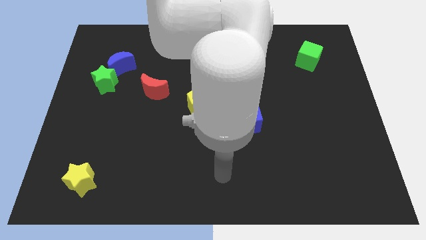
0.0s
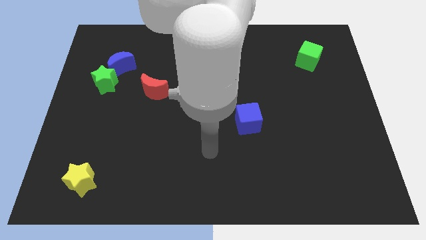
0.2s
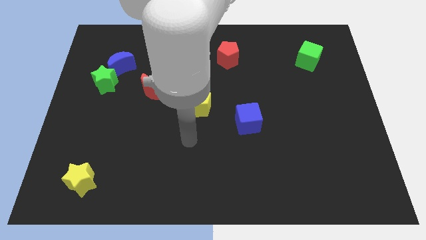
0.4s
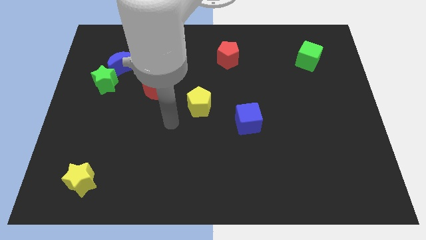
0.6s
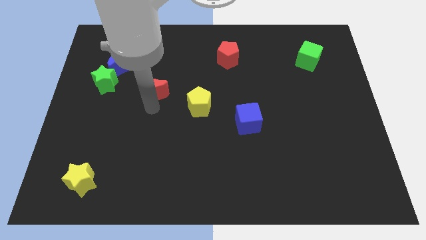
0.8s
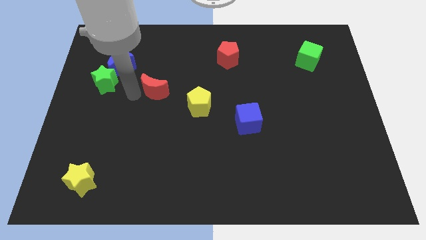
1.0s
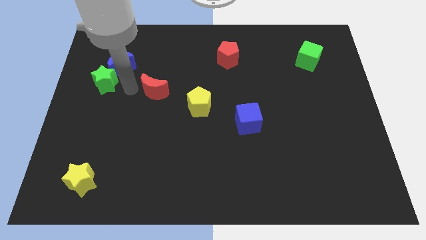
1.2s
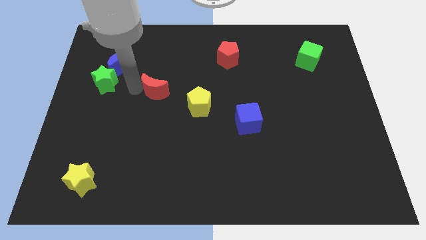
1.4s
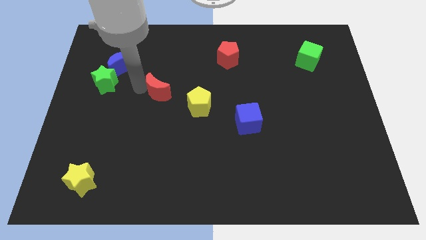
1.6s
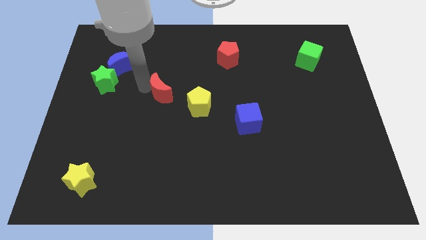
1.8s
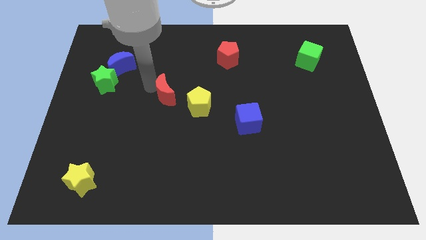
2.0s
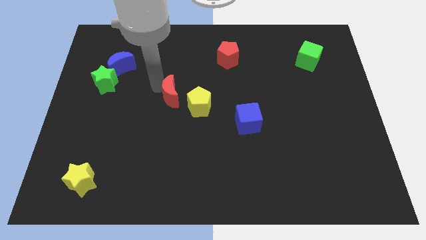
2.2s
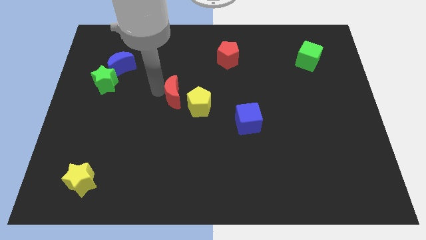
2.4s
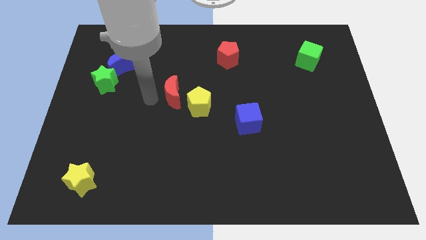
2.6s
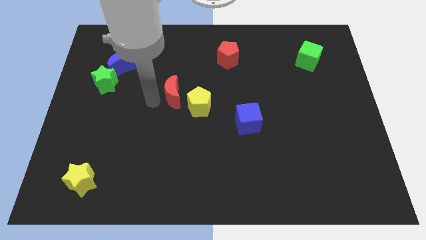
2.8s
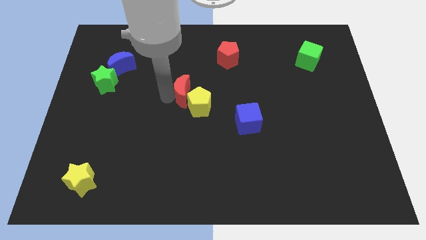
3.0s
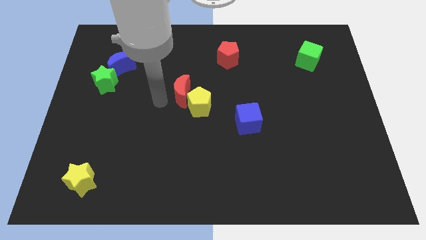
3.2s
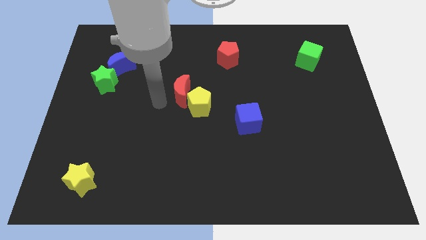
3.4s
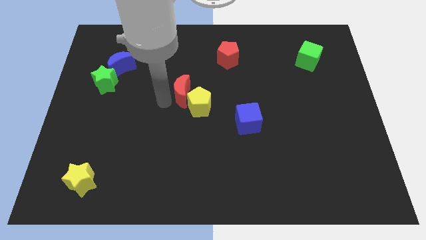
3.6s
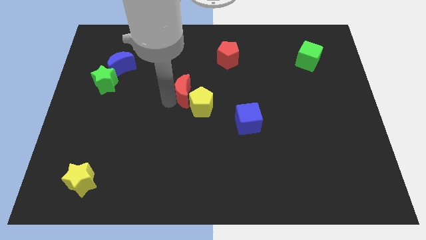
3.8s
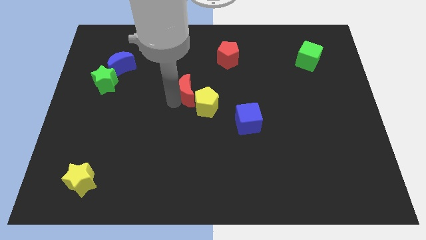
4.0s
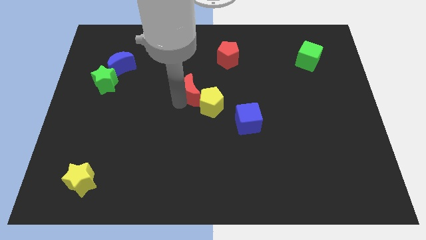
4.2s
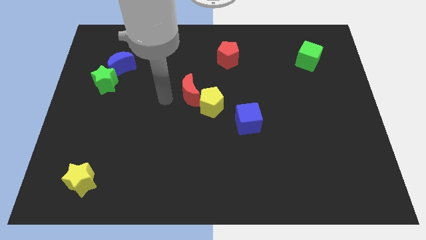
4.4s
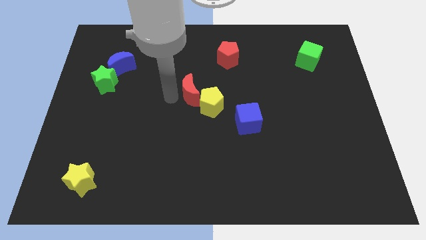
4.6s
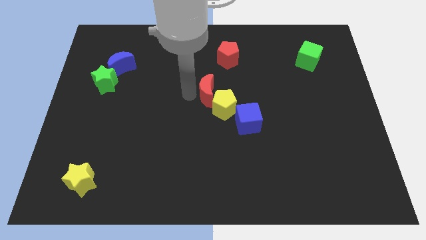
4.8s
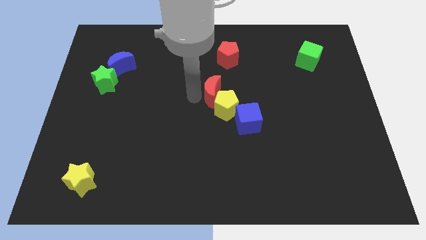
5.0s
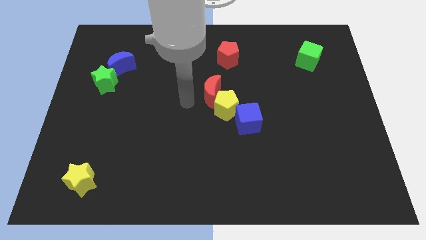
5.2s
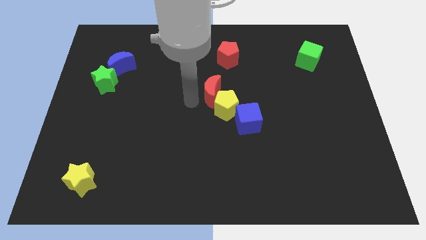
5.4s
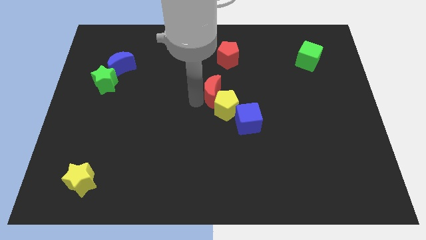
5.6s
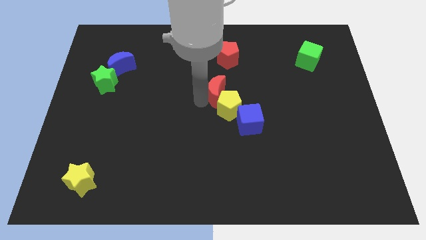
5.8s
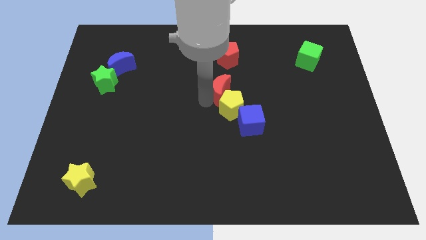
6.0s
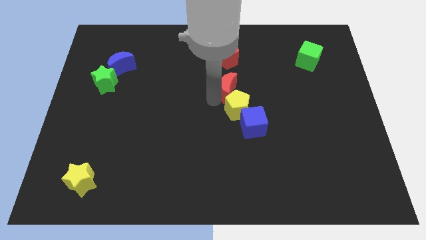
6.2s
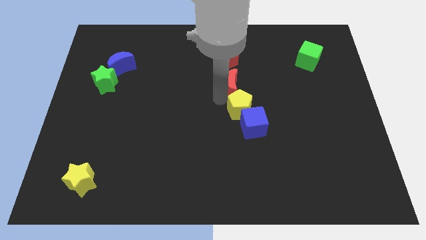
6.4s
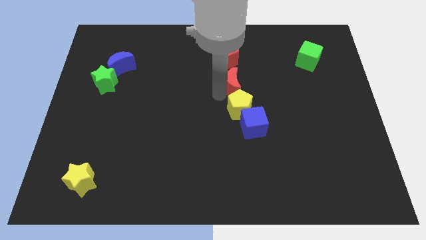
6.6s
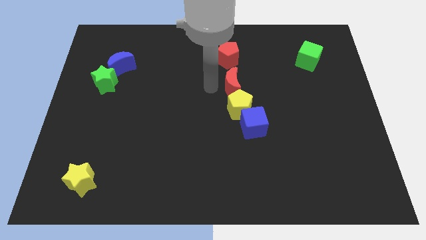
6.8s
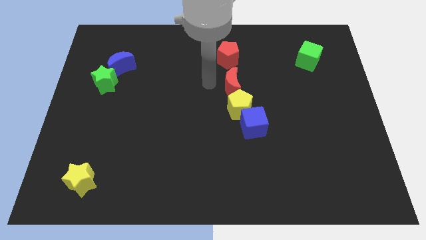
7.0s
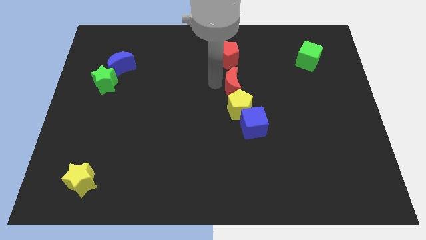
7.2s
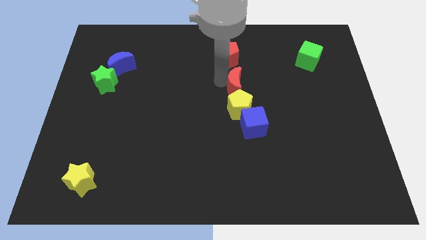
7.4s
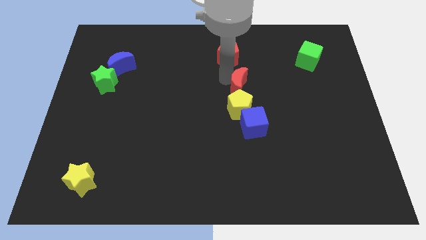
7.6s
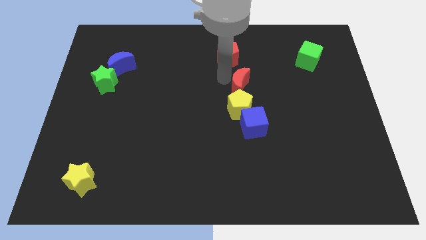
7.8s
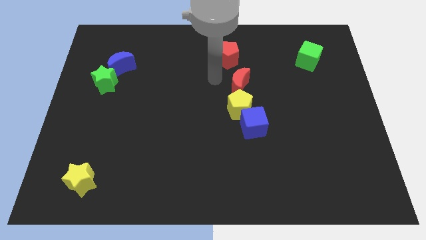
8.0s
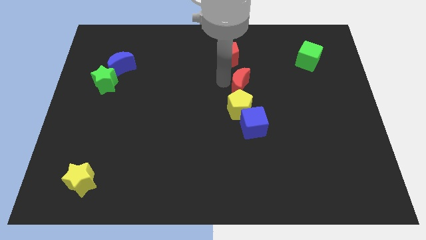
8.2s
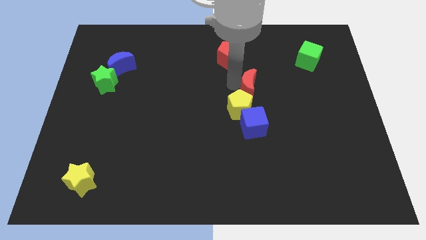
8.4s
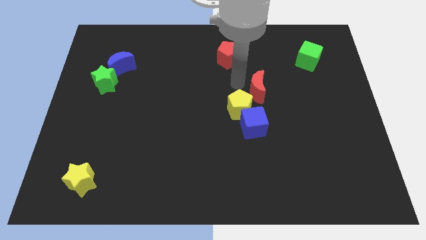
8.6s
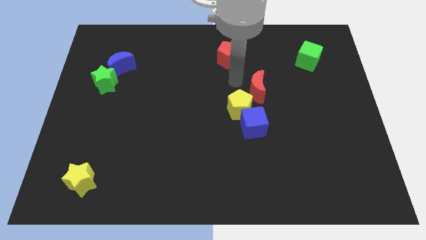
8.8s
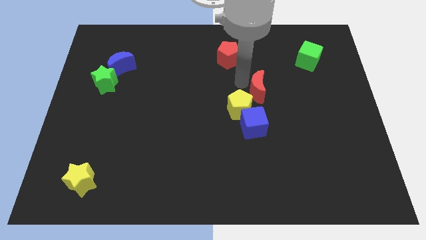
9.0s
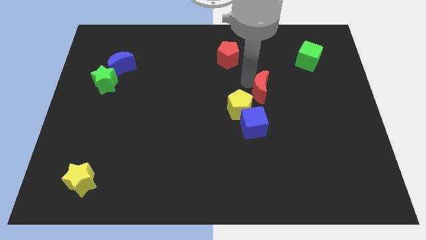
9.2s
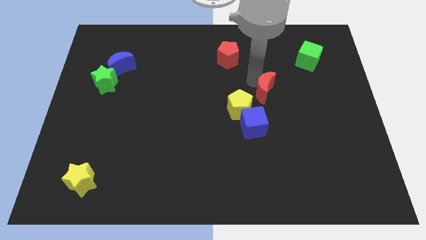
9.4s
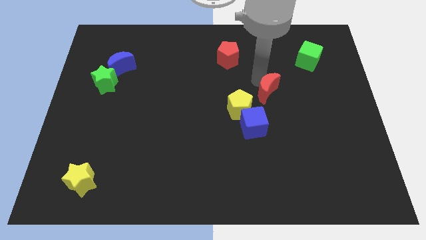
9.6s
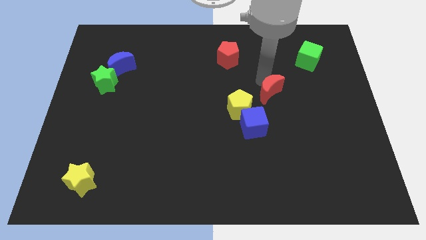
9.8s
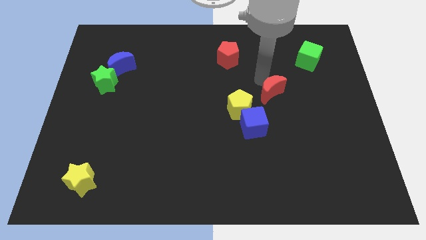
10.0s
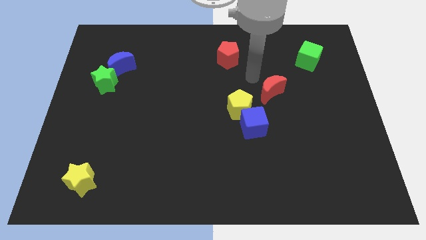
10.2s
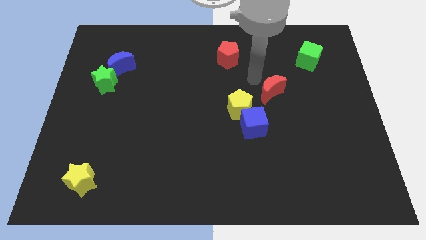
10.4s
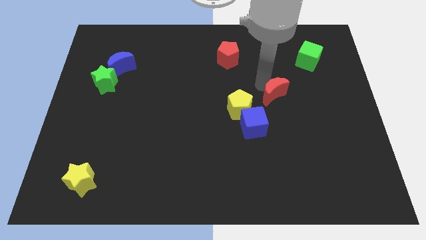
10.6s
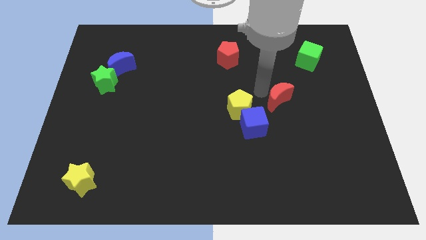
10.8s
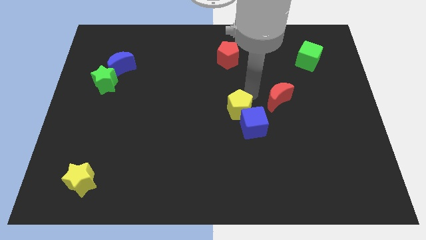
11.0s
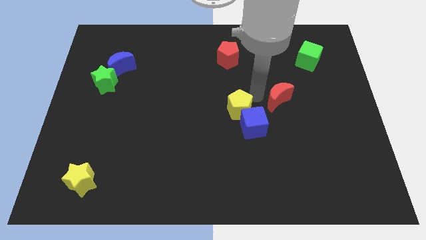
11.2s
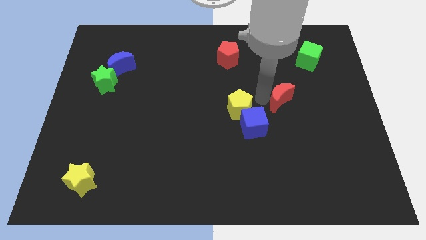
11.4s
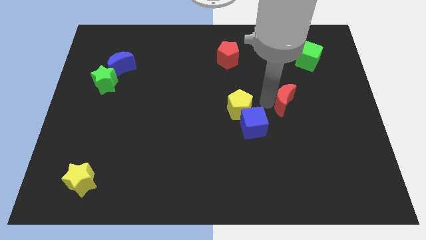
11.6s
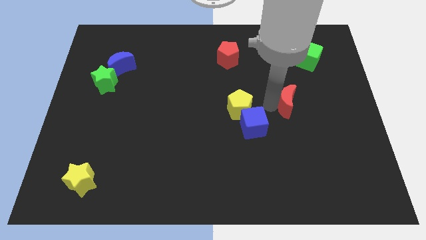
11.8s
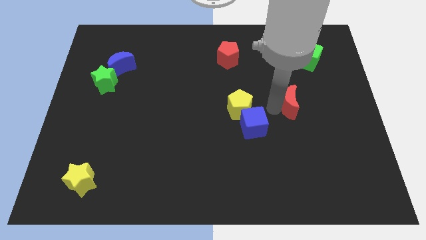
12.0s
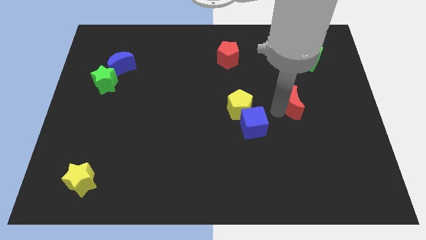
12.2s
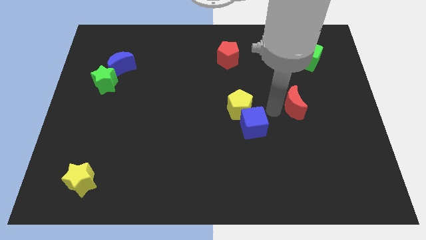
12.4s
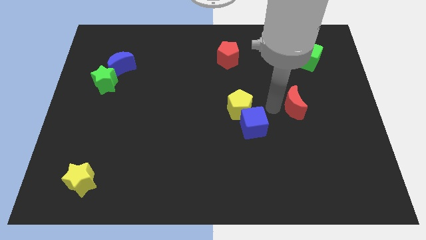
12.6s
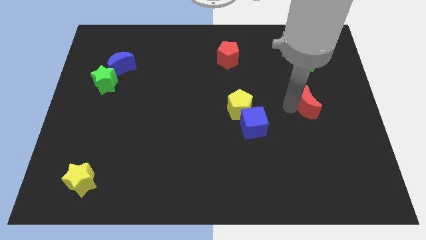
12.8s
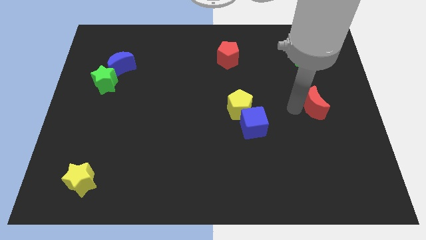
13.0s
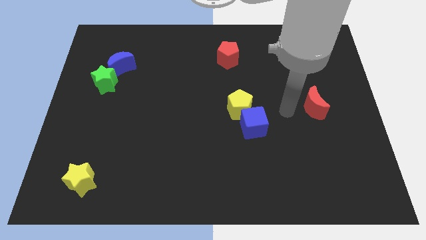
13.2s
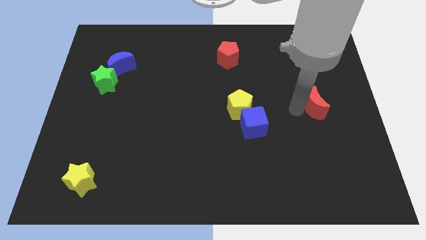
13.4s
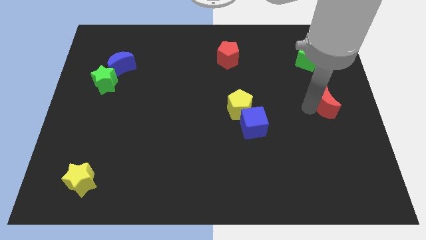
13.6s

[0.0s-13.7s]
move the red moon to the right side

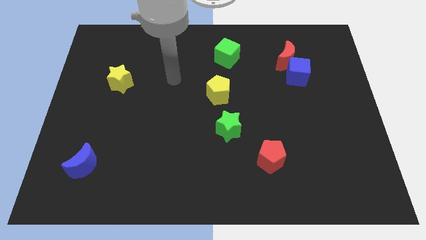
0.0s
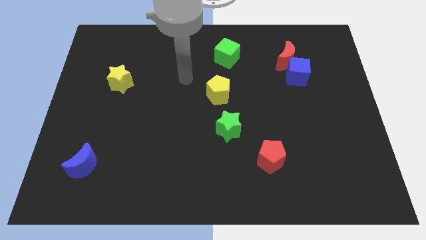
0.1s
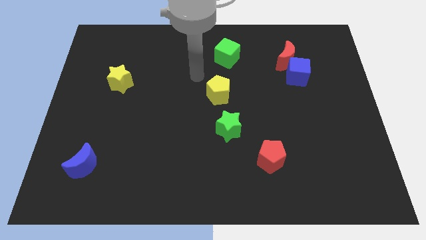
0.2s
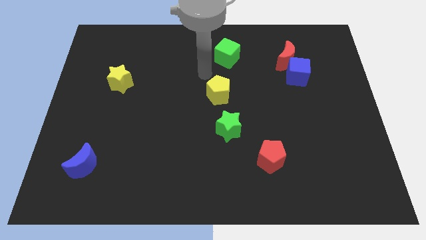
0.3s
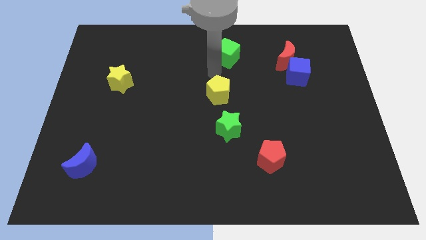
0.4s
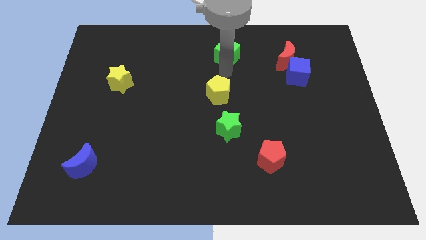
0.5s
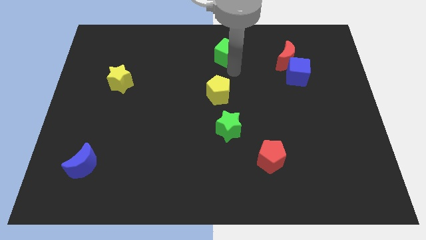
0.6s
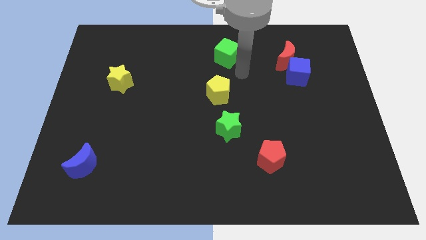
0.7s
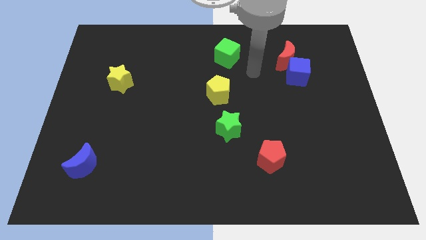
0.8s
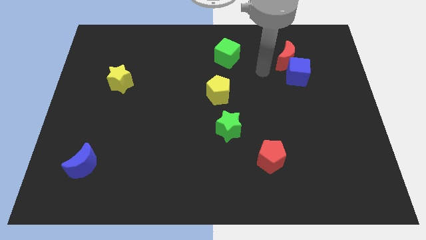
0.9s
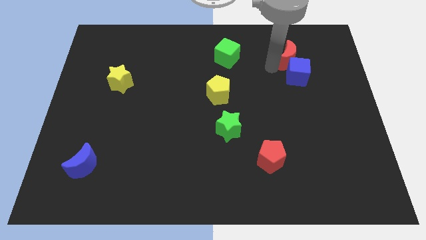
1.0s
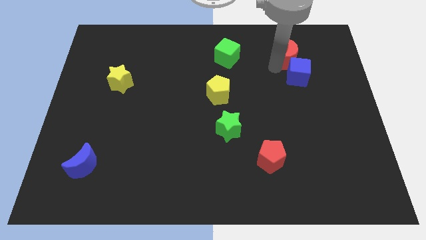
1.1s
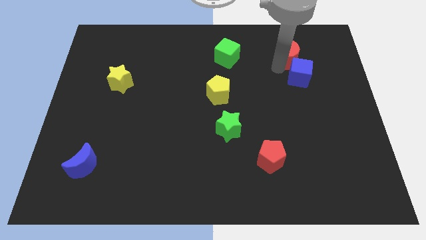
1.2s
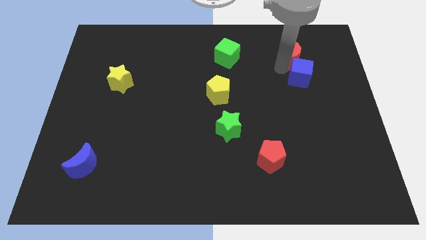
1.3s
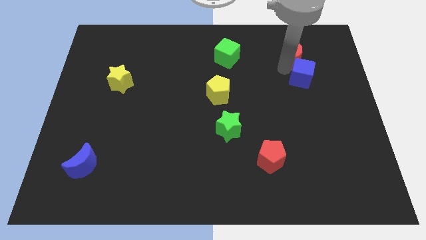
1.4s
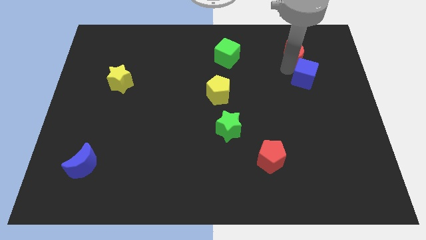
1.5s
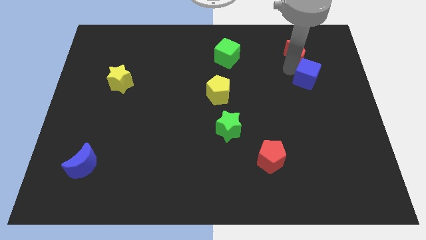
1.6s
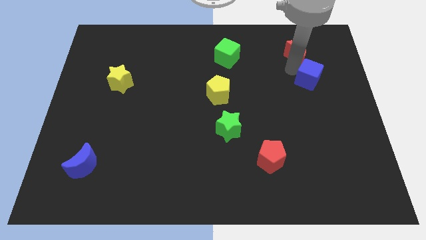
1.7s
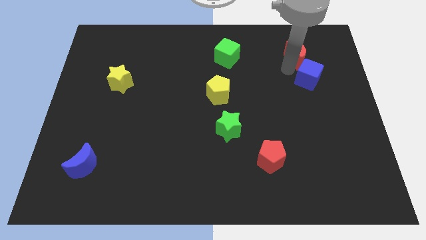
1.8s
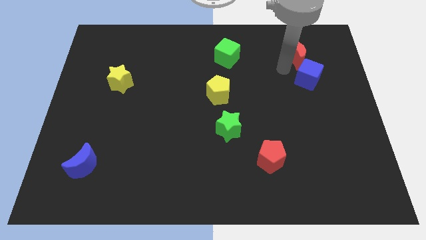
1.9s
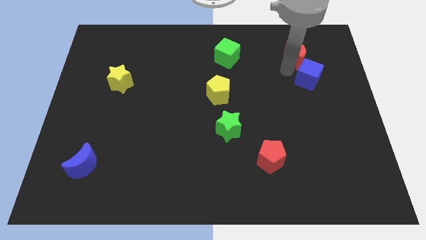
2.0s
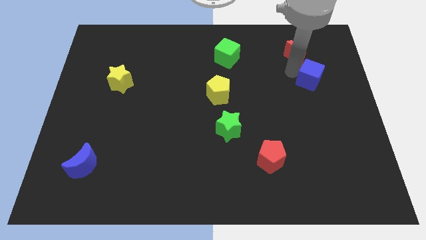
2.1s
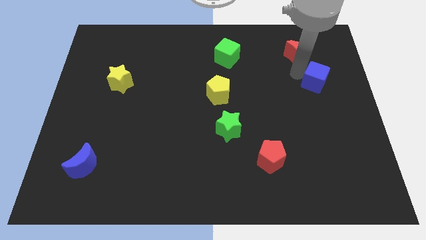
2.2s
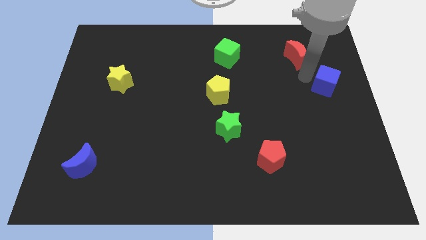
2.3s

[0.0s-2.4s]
put the blue cube to the center right
